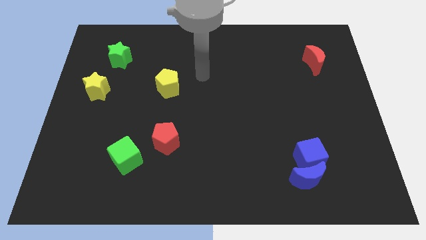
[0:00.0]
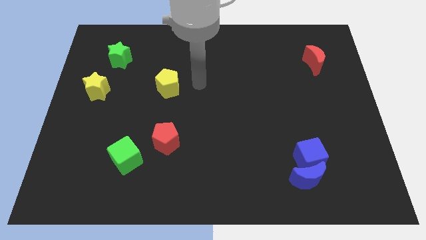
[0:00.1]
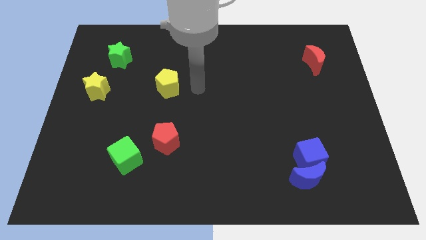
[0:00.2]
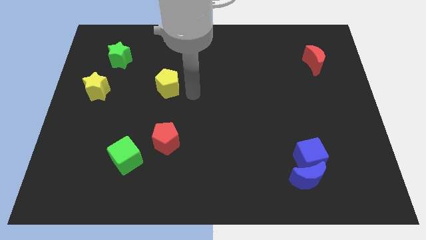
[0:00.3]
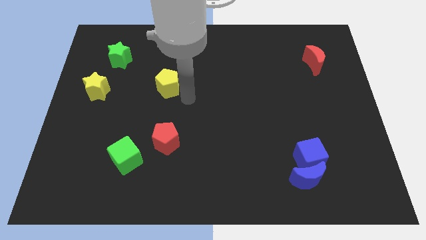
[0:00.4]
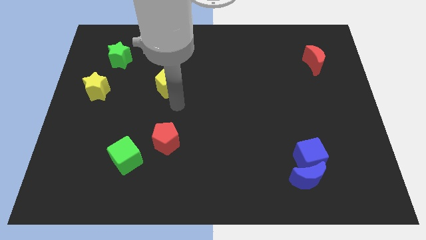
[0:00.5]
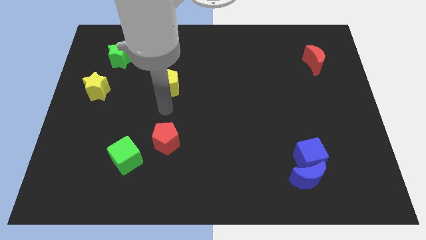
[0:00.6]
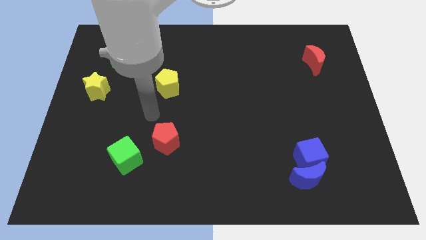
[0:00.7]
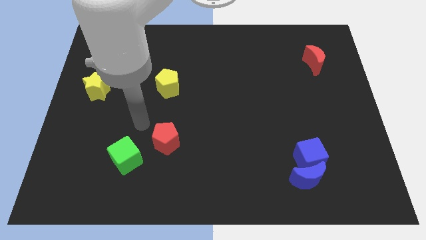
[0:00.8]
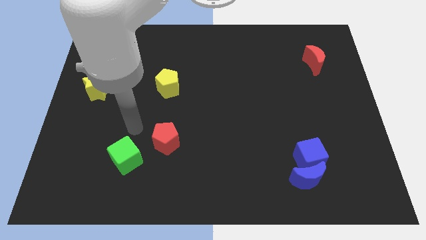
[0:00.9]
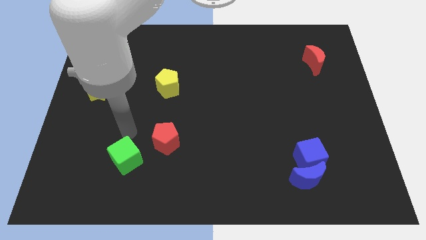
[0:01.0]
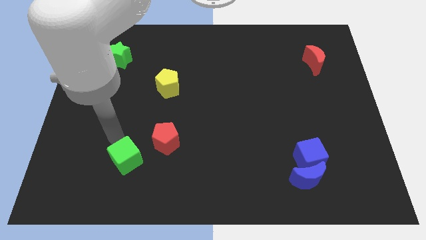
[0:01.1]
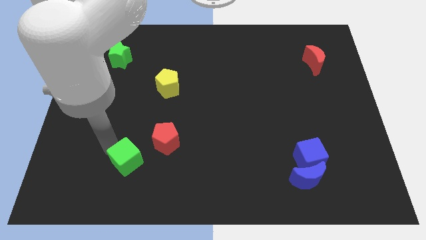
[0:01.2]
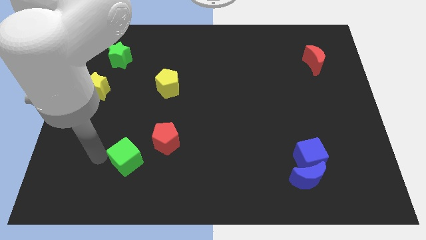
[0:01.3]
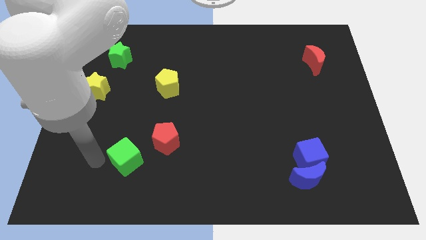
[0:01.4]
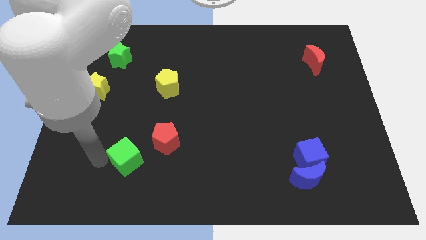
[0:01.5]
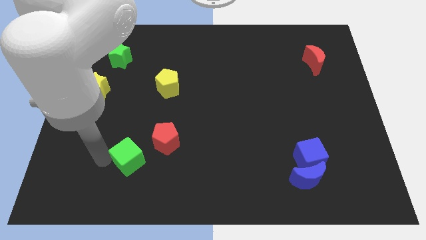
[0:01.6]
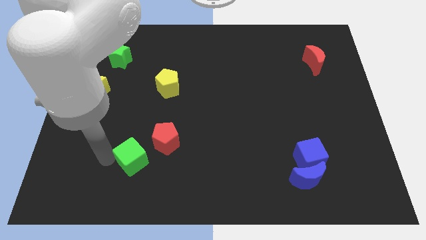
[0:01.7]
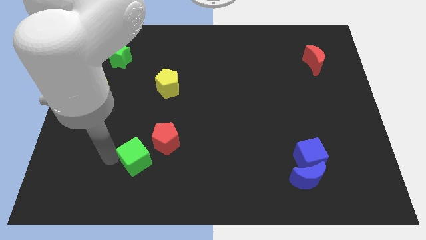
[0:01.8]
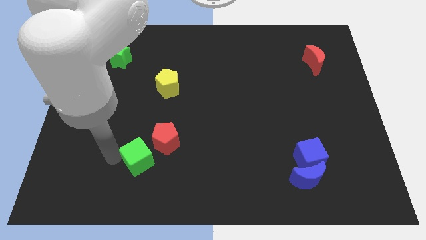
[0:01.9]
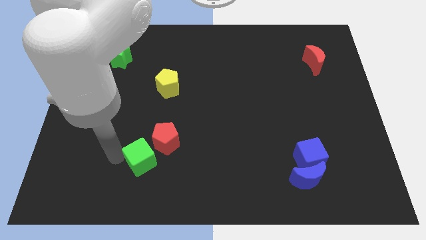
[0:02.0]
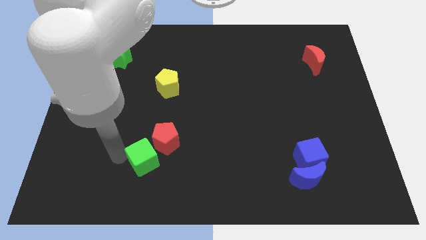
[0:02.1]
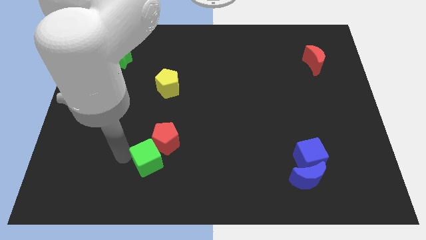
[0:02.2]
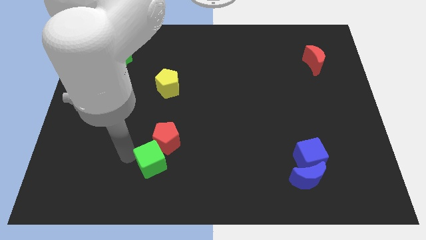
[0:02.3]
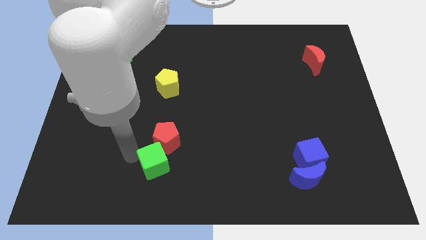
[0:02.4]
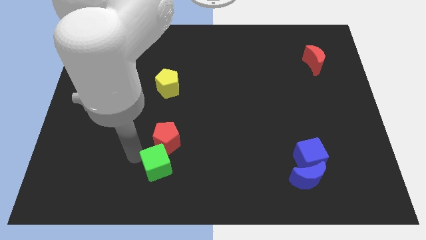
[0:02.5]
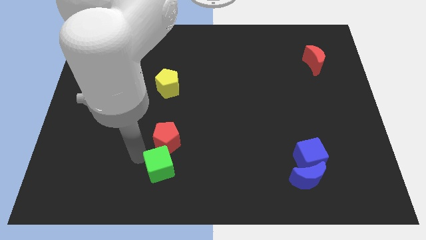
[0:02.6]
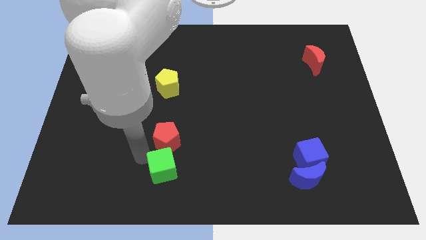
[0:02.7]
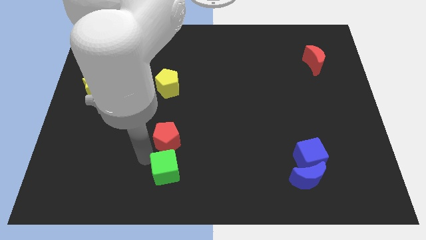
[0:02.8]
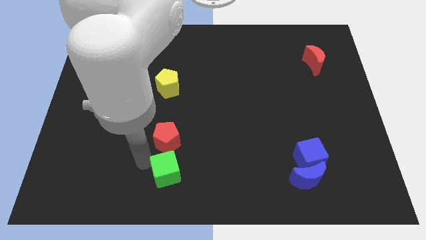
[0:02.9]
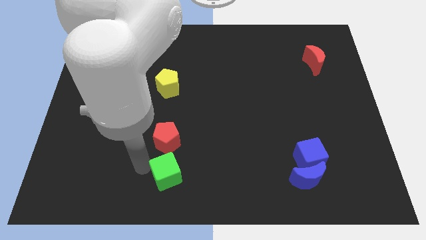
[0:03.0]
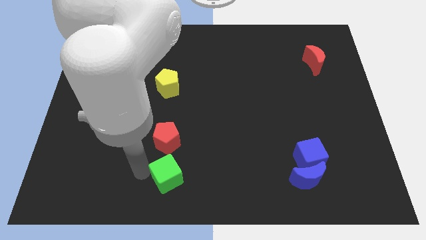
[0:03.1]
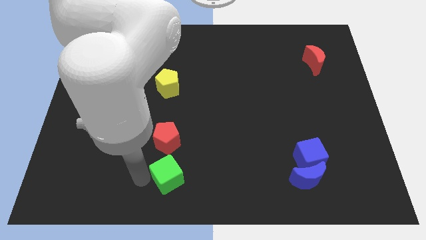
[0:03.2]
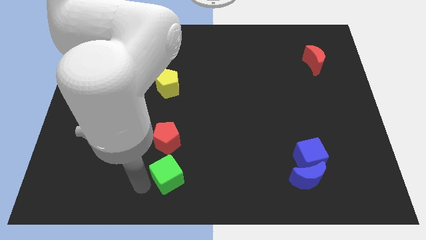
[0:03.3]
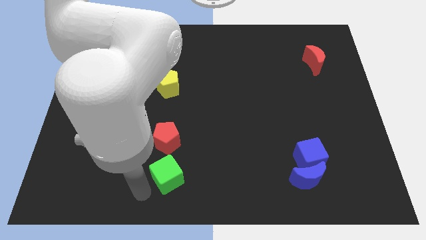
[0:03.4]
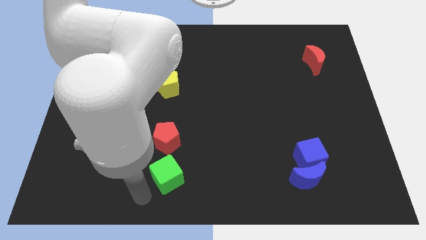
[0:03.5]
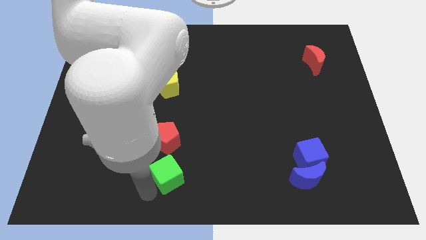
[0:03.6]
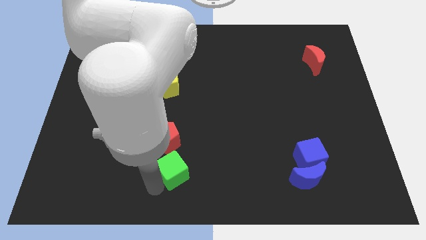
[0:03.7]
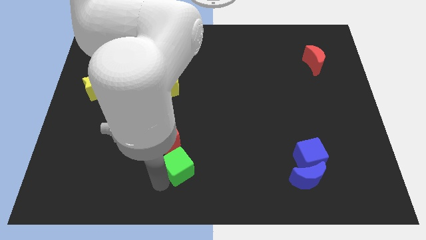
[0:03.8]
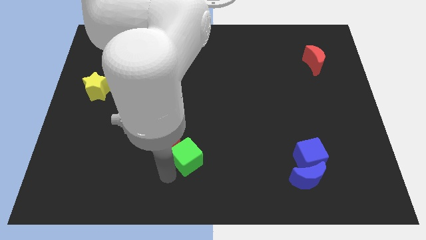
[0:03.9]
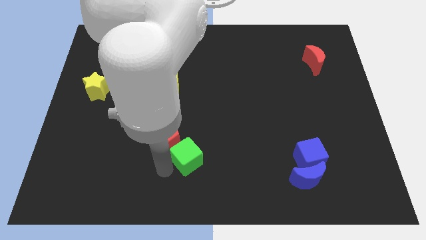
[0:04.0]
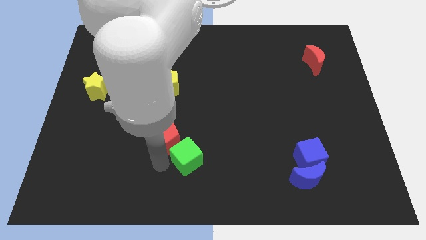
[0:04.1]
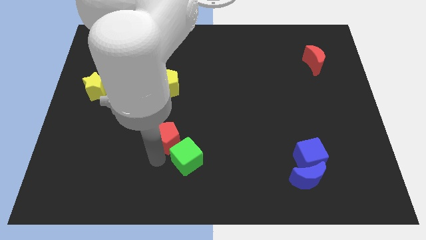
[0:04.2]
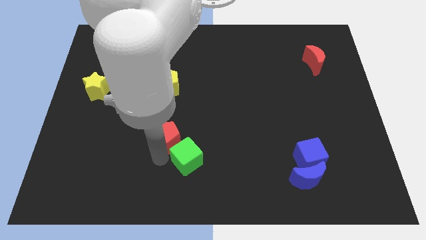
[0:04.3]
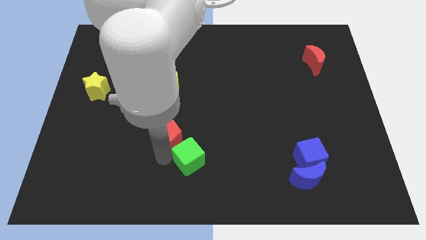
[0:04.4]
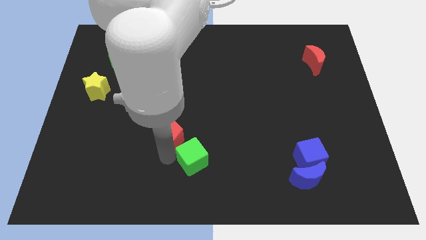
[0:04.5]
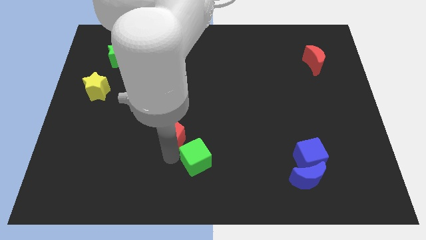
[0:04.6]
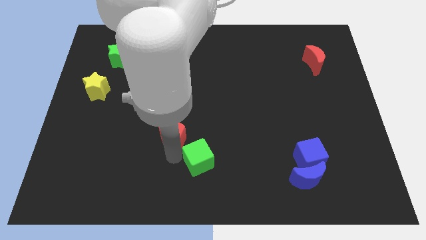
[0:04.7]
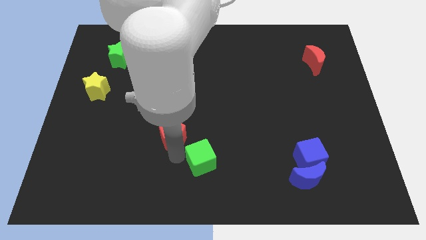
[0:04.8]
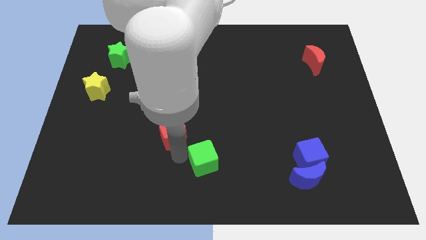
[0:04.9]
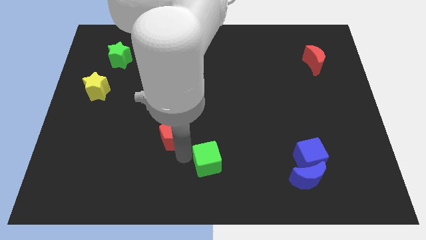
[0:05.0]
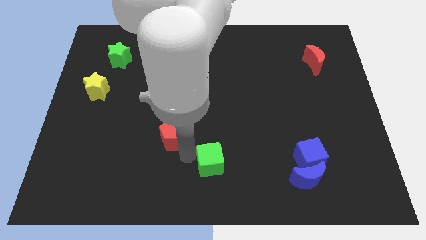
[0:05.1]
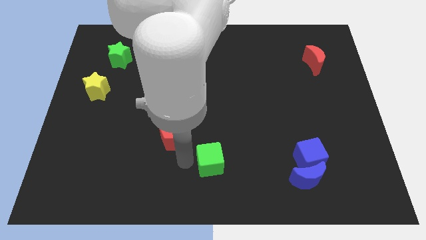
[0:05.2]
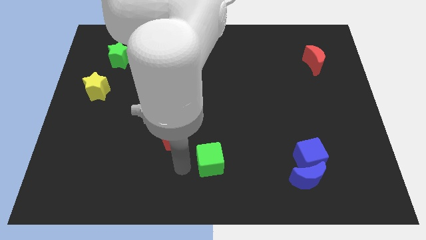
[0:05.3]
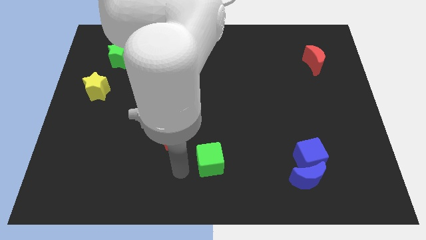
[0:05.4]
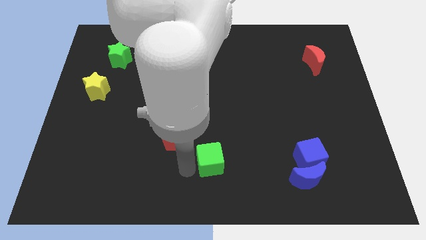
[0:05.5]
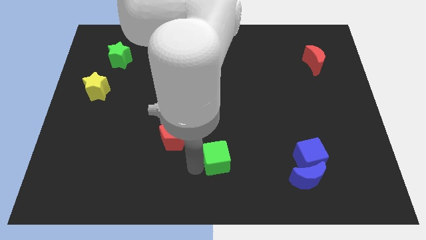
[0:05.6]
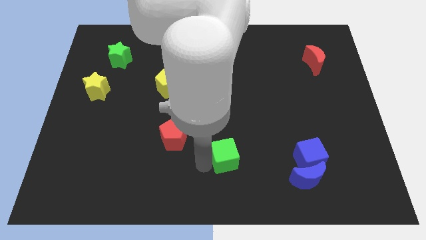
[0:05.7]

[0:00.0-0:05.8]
move the green cube to the right

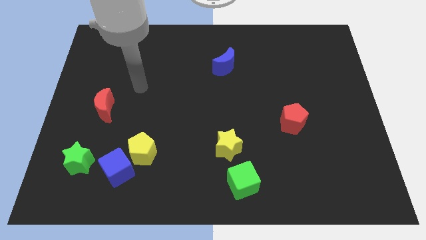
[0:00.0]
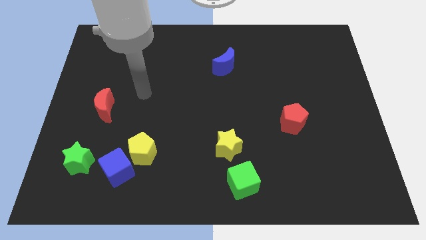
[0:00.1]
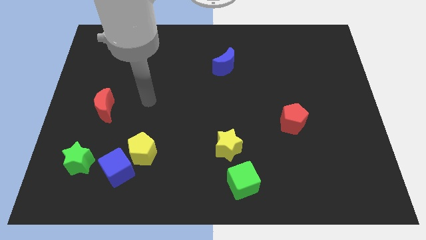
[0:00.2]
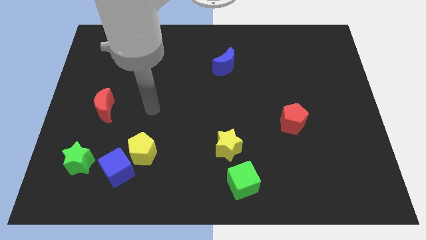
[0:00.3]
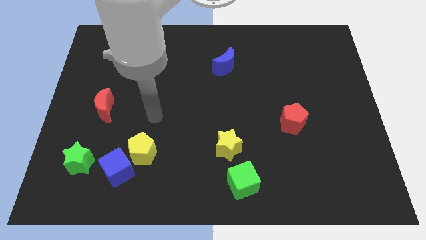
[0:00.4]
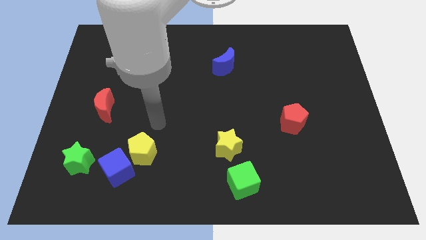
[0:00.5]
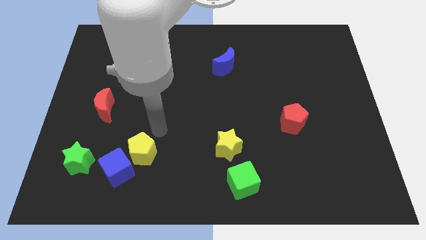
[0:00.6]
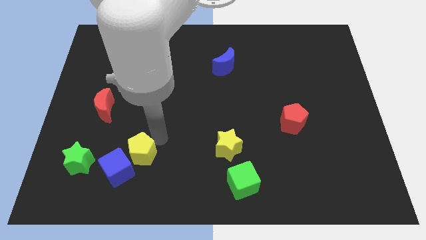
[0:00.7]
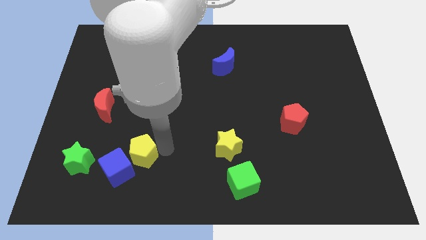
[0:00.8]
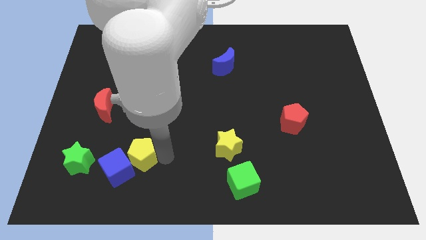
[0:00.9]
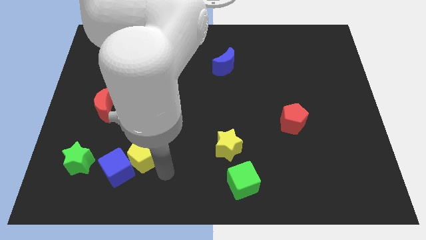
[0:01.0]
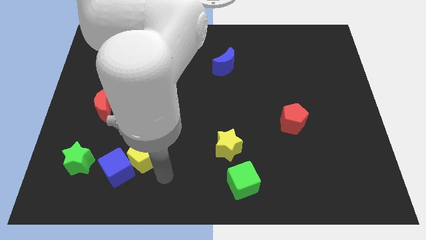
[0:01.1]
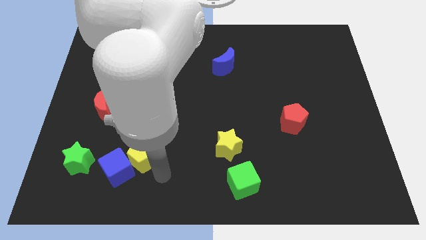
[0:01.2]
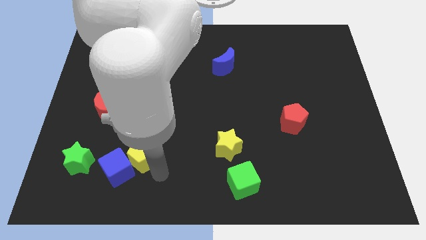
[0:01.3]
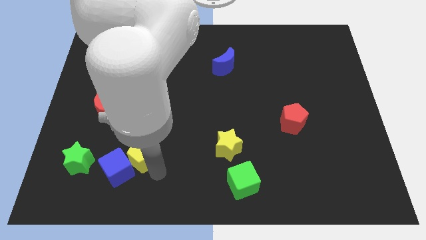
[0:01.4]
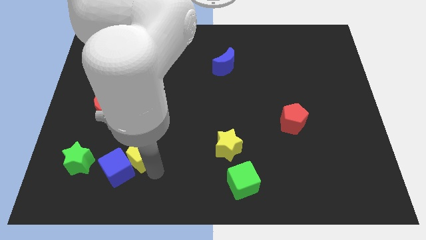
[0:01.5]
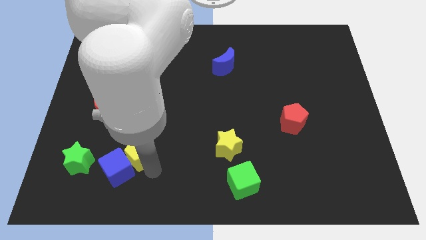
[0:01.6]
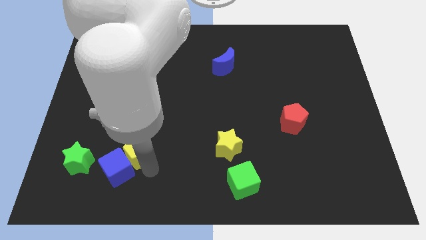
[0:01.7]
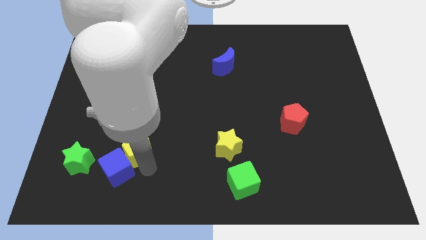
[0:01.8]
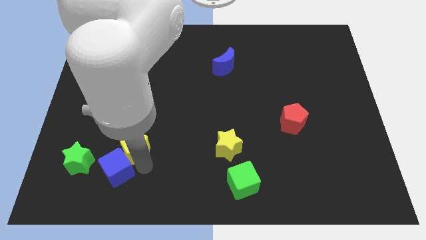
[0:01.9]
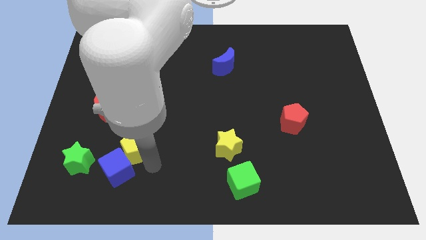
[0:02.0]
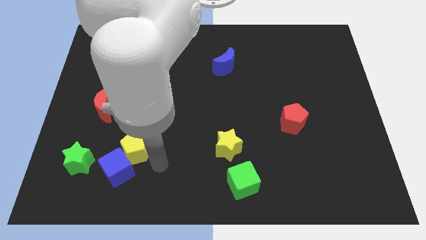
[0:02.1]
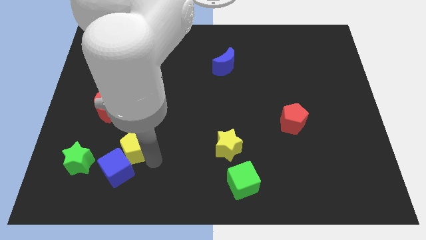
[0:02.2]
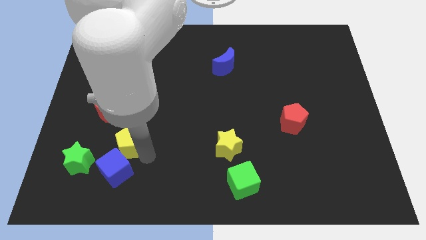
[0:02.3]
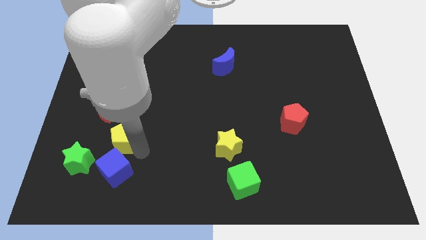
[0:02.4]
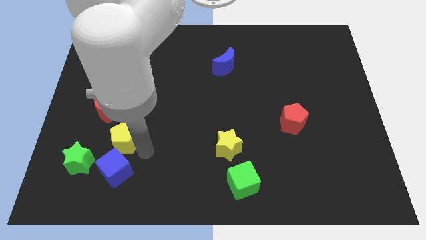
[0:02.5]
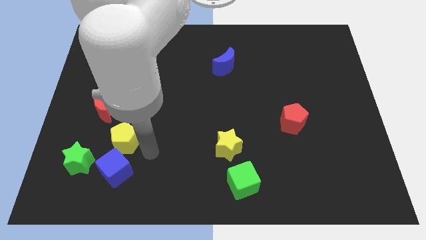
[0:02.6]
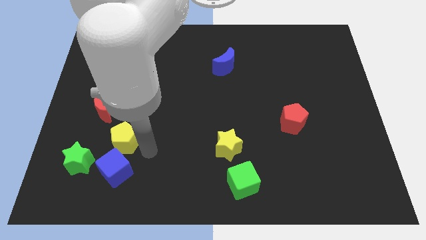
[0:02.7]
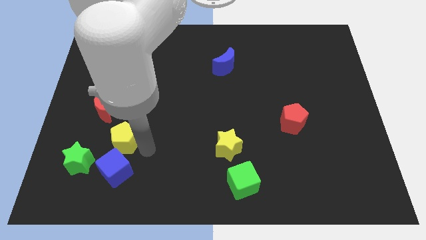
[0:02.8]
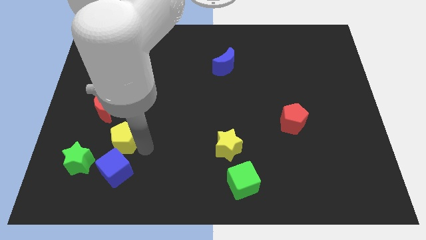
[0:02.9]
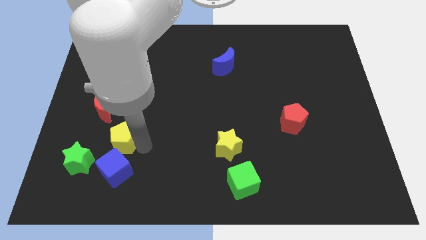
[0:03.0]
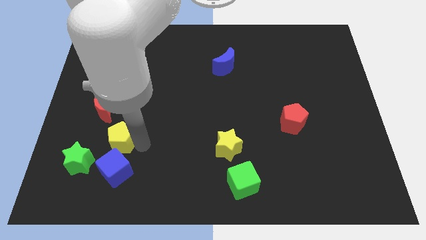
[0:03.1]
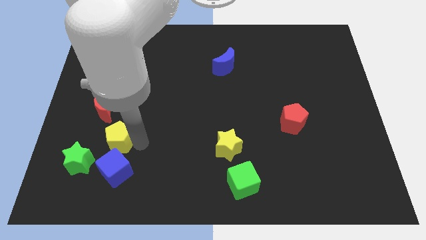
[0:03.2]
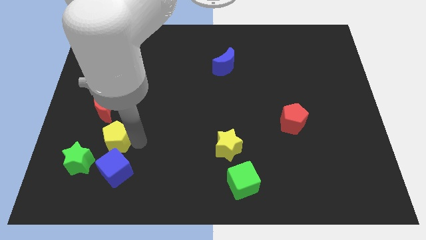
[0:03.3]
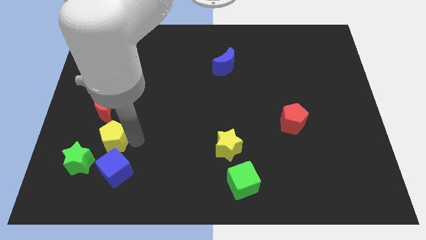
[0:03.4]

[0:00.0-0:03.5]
move the yellow pentagon diagonally upwards and left slightly
